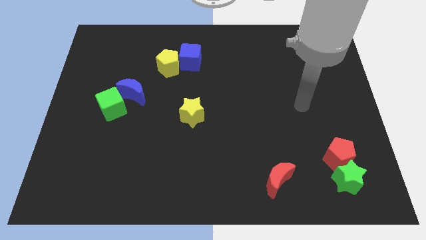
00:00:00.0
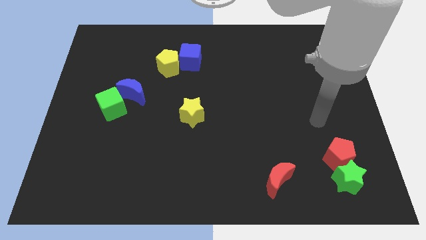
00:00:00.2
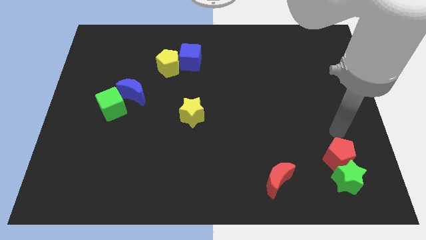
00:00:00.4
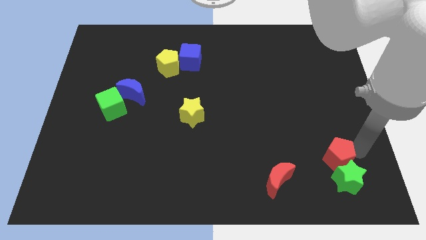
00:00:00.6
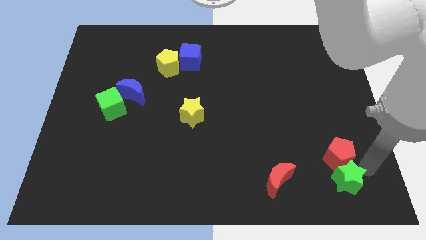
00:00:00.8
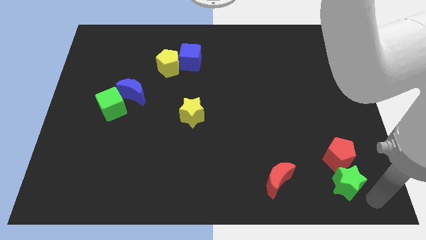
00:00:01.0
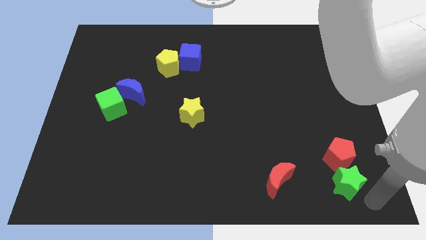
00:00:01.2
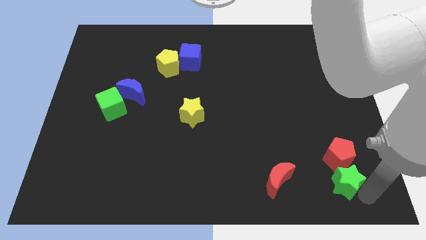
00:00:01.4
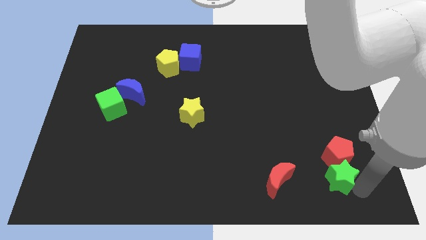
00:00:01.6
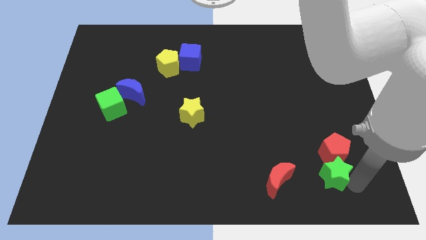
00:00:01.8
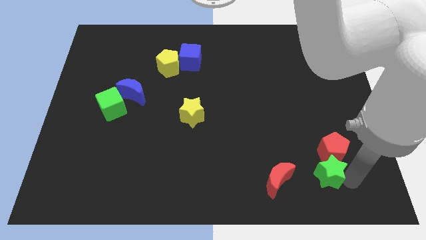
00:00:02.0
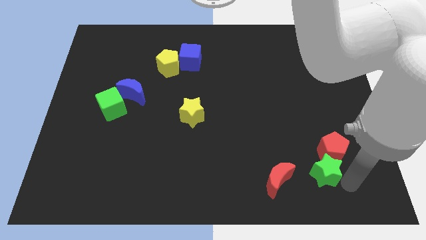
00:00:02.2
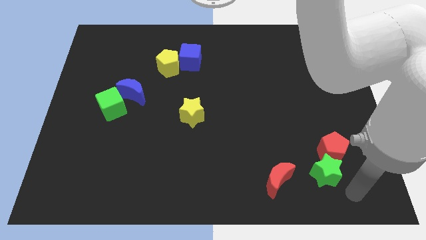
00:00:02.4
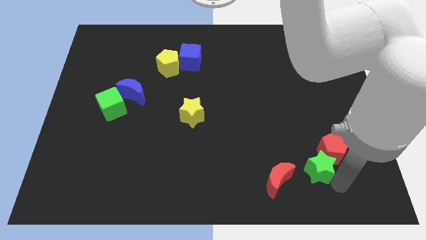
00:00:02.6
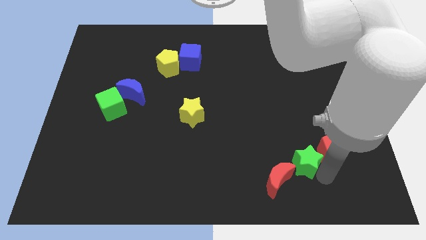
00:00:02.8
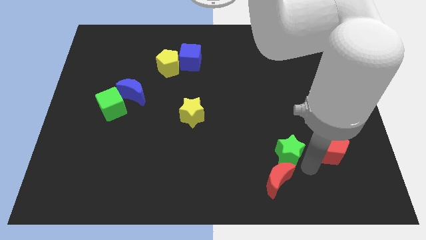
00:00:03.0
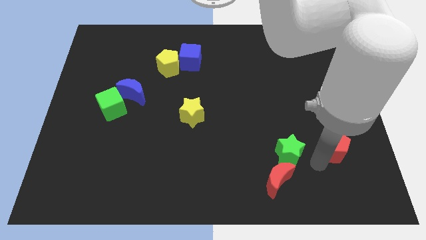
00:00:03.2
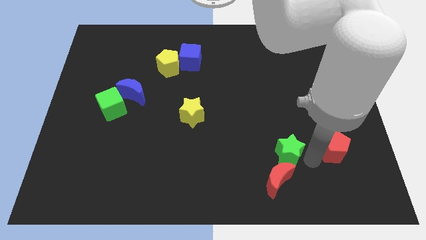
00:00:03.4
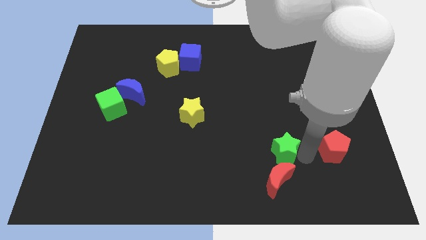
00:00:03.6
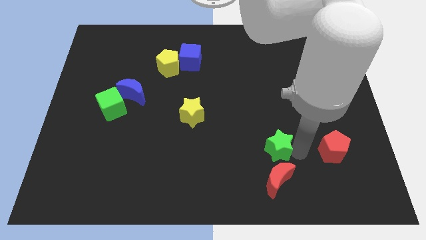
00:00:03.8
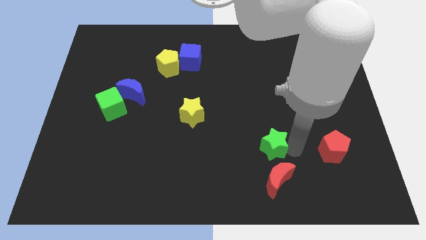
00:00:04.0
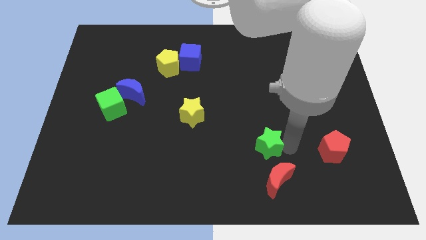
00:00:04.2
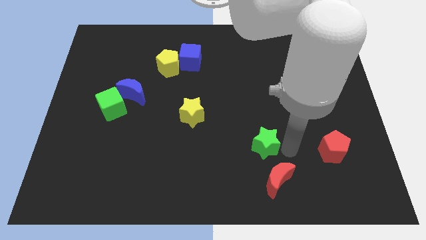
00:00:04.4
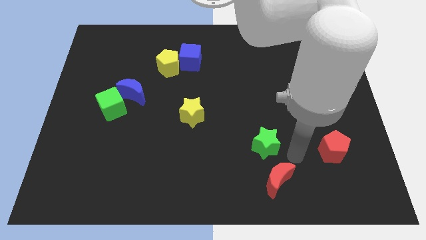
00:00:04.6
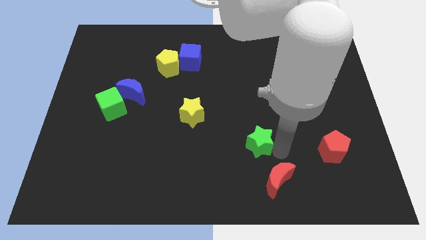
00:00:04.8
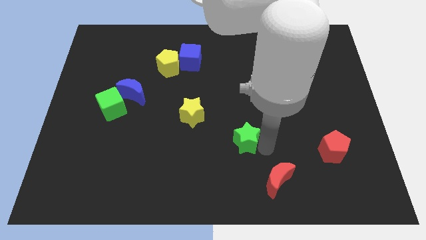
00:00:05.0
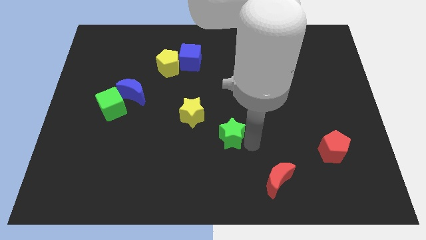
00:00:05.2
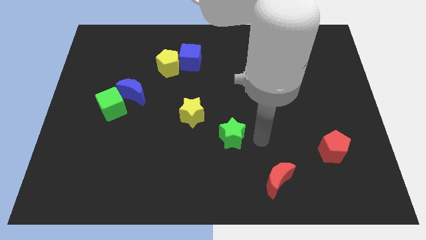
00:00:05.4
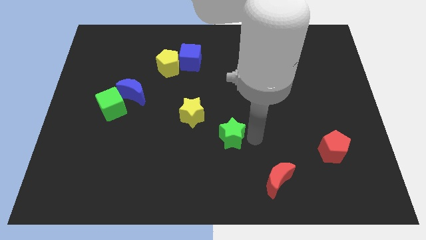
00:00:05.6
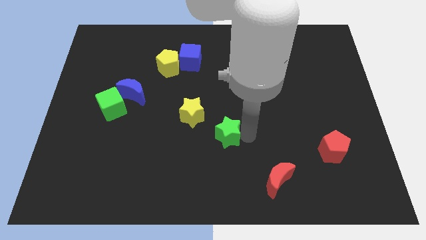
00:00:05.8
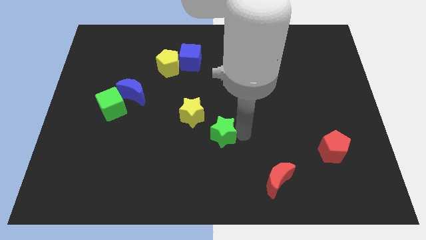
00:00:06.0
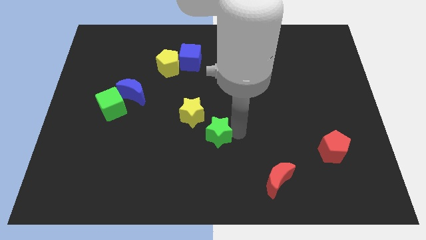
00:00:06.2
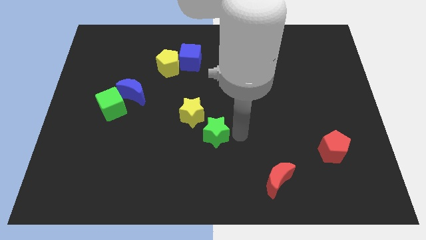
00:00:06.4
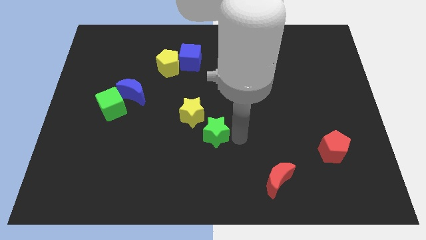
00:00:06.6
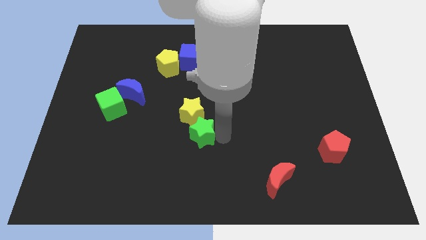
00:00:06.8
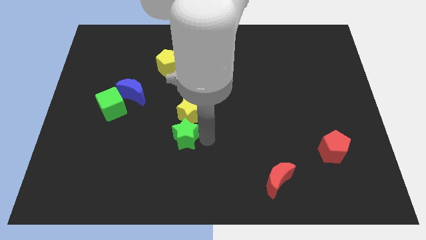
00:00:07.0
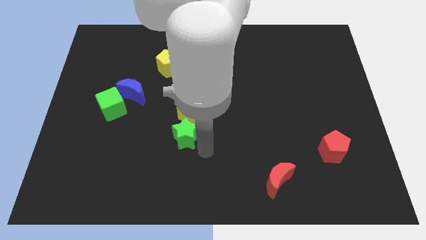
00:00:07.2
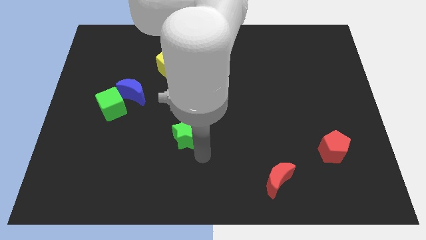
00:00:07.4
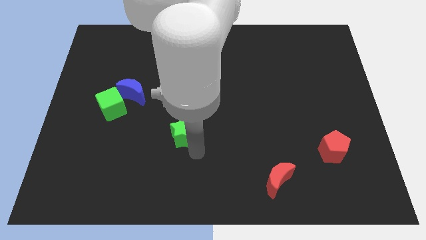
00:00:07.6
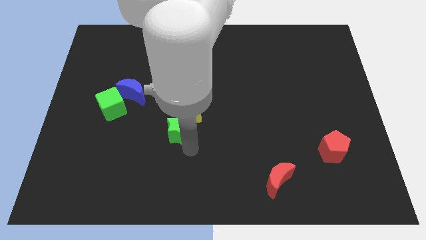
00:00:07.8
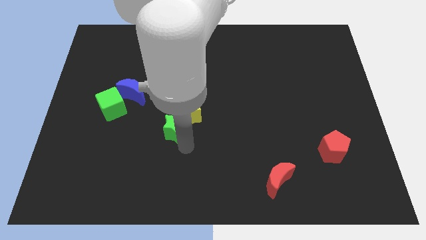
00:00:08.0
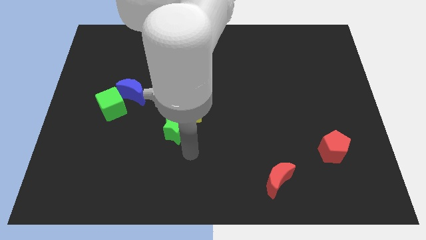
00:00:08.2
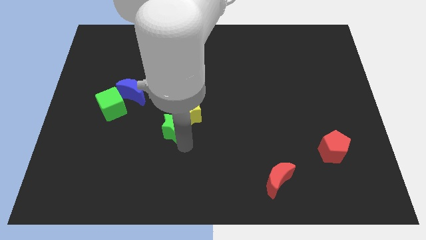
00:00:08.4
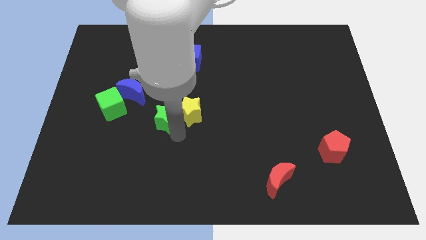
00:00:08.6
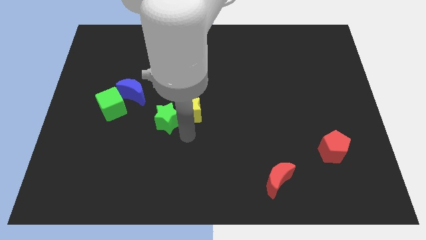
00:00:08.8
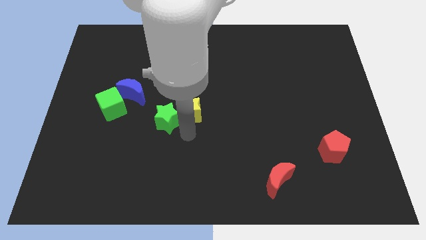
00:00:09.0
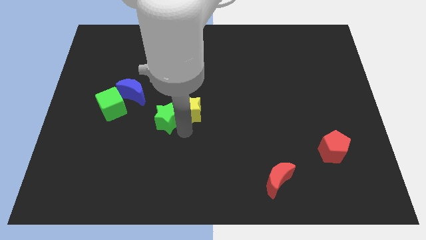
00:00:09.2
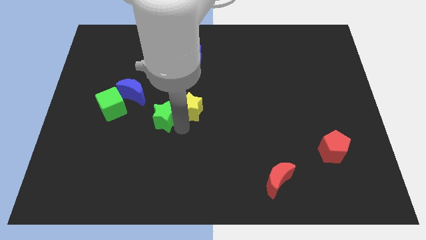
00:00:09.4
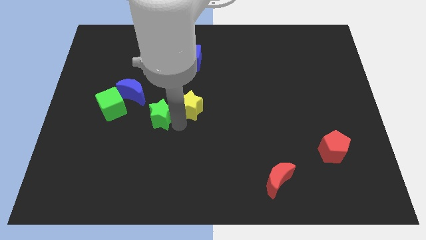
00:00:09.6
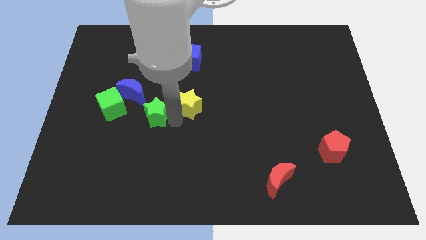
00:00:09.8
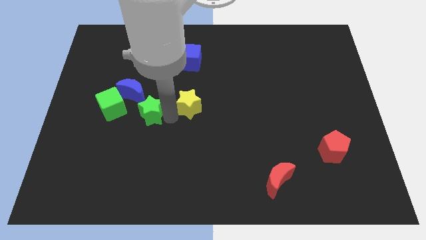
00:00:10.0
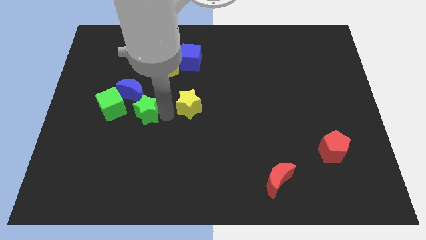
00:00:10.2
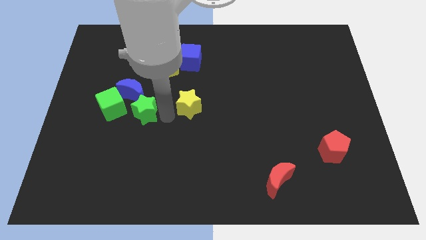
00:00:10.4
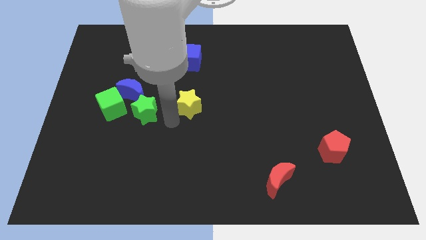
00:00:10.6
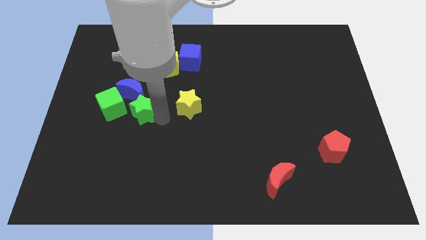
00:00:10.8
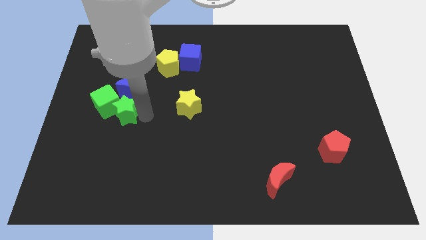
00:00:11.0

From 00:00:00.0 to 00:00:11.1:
put the green star to the green cube

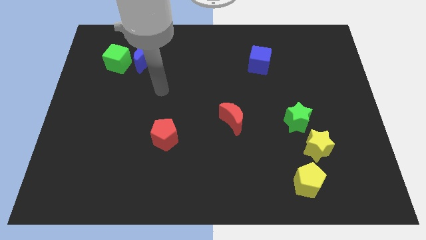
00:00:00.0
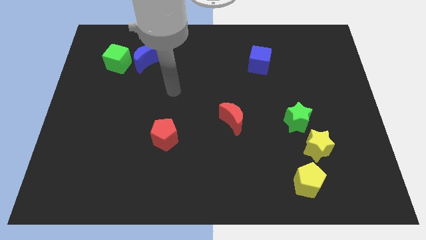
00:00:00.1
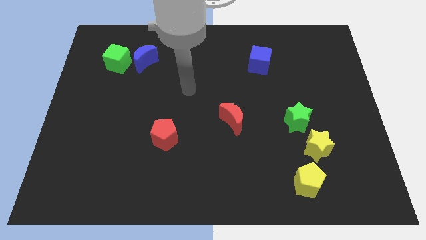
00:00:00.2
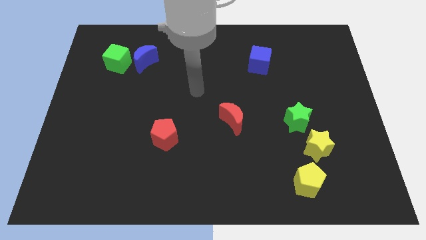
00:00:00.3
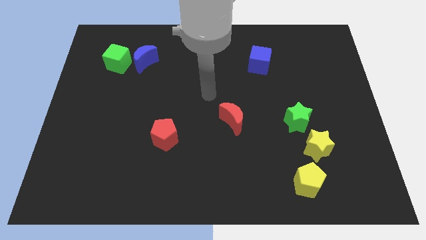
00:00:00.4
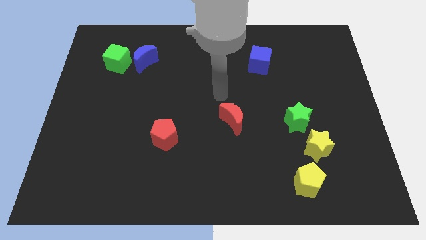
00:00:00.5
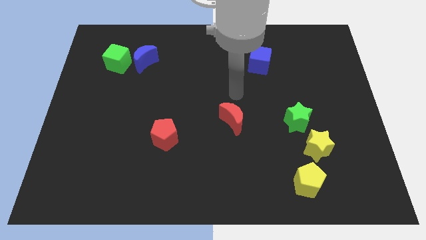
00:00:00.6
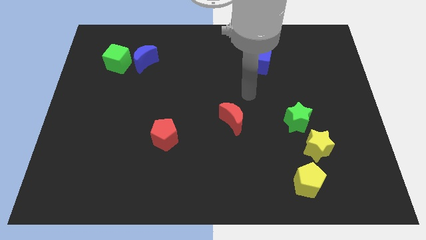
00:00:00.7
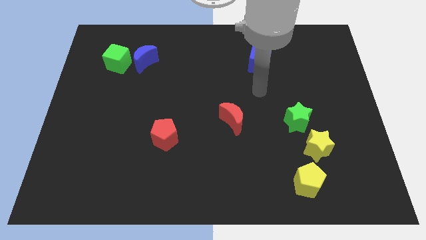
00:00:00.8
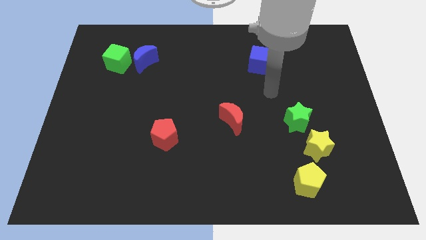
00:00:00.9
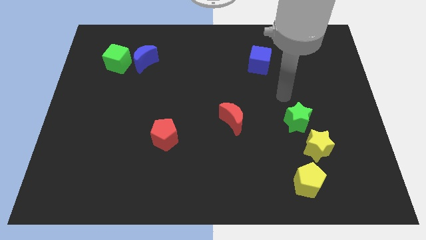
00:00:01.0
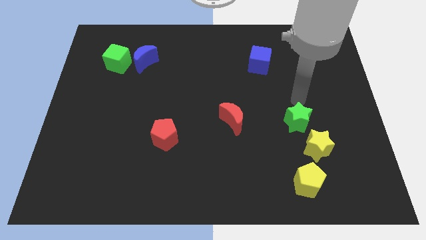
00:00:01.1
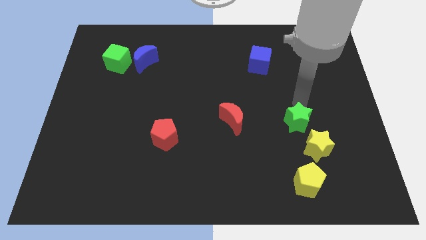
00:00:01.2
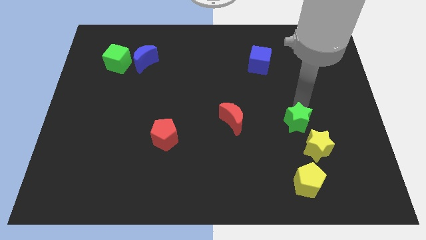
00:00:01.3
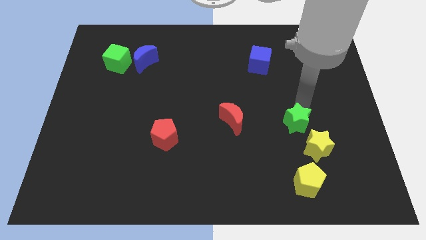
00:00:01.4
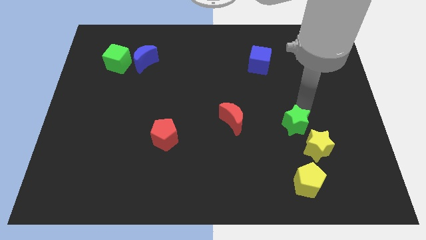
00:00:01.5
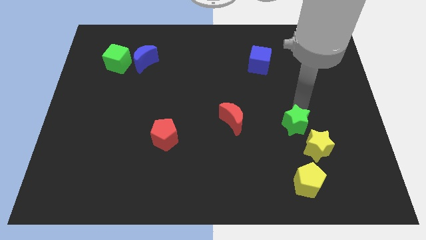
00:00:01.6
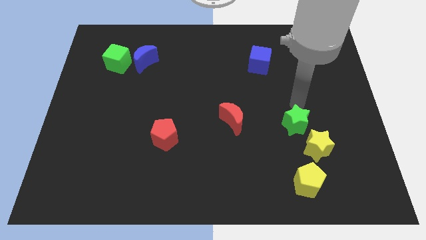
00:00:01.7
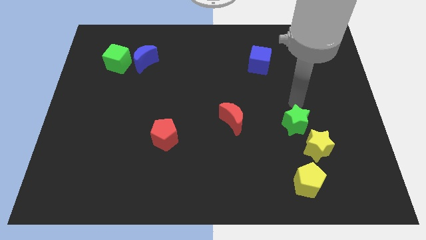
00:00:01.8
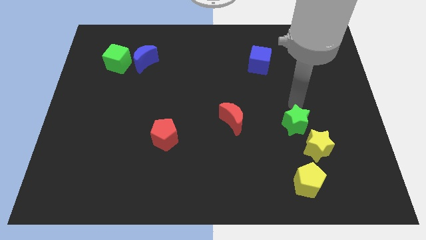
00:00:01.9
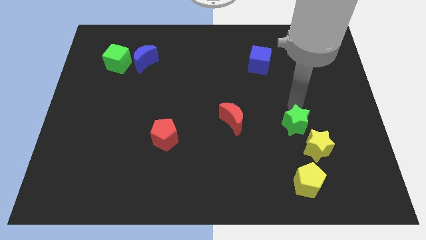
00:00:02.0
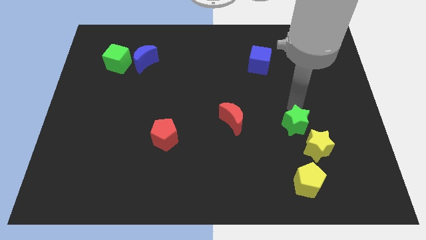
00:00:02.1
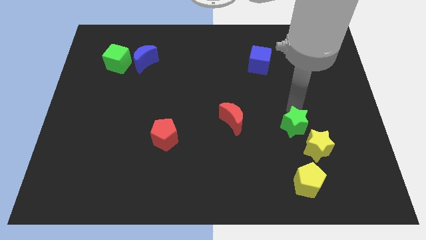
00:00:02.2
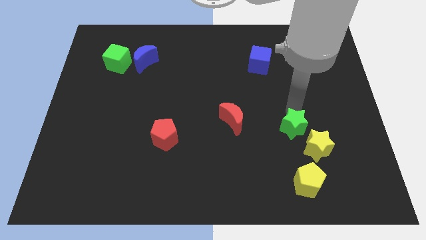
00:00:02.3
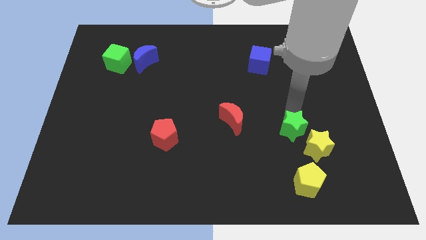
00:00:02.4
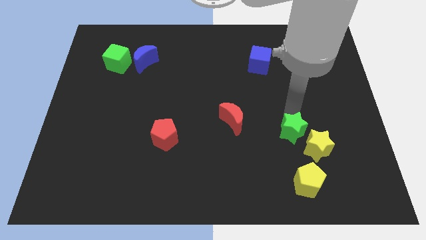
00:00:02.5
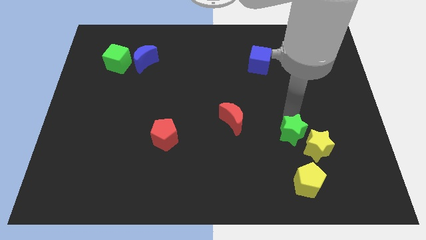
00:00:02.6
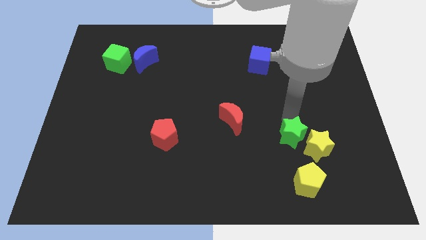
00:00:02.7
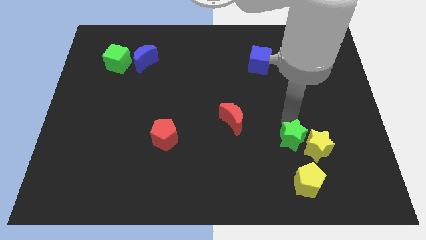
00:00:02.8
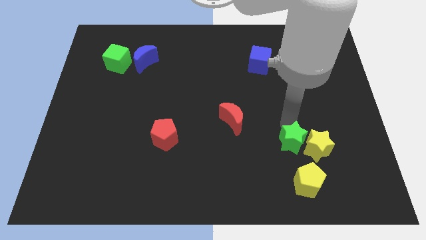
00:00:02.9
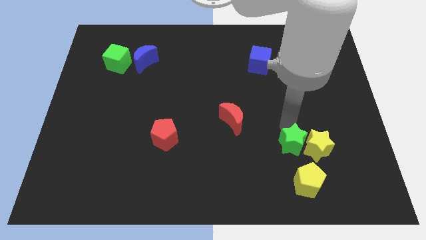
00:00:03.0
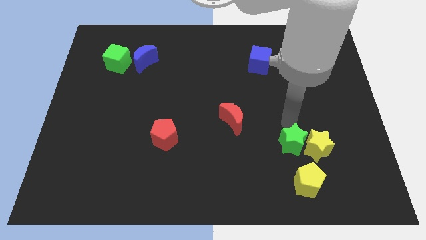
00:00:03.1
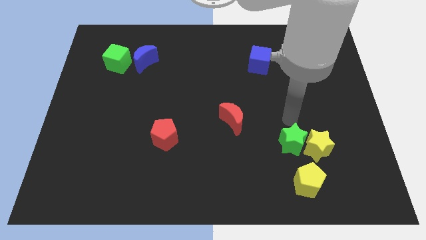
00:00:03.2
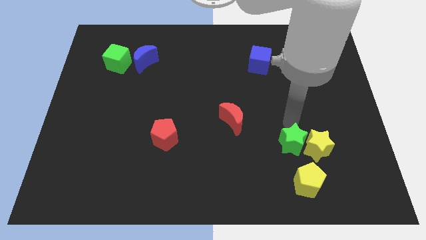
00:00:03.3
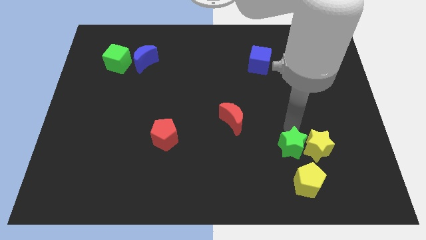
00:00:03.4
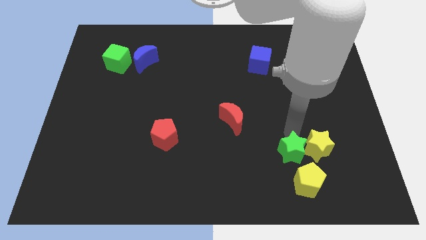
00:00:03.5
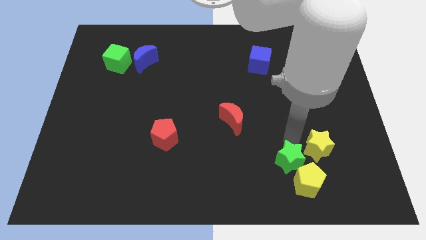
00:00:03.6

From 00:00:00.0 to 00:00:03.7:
move the green star to the yellow pentagon
